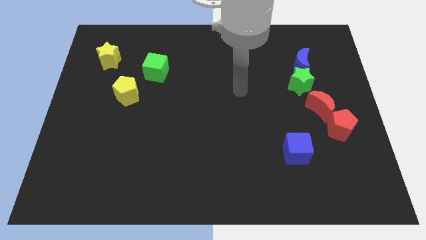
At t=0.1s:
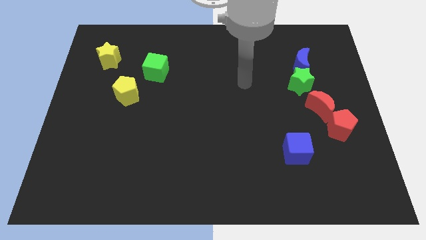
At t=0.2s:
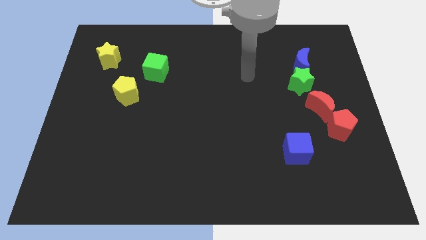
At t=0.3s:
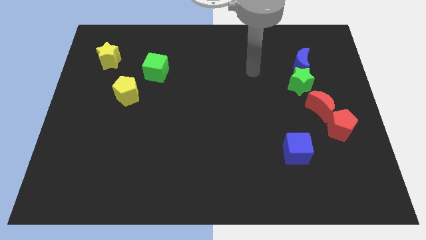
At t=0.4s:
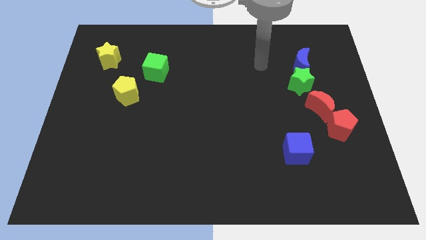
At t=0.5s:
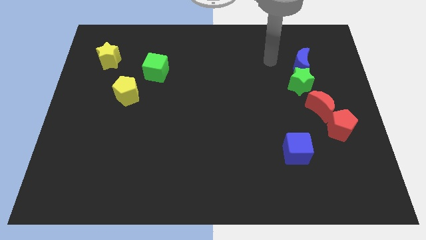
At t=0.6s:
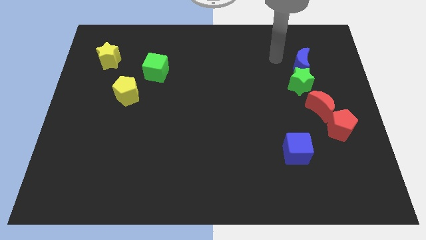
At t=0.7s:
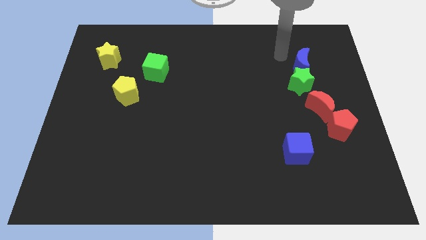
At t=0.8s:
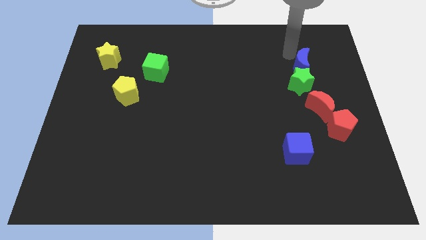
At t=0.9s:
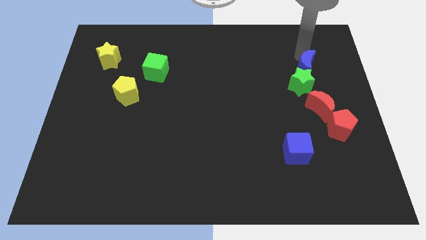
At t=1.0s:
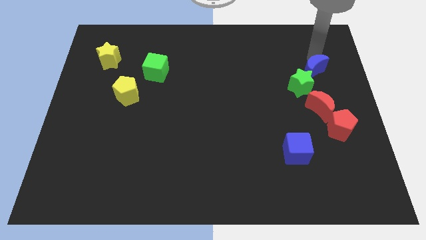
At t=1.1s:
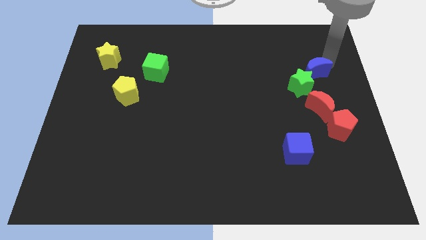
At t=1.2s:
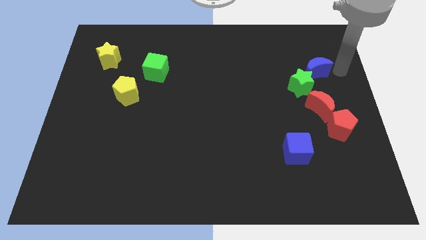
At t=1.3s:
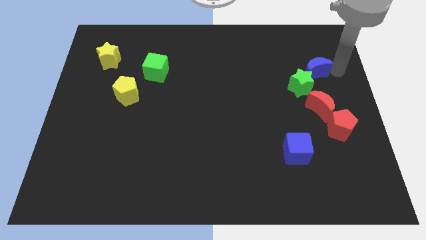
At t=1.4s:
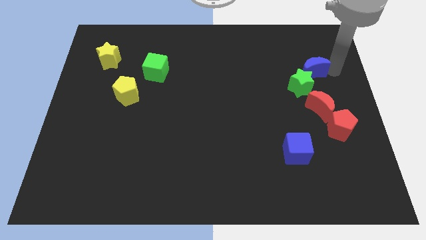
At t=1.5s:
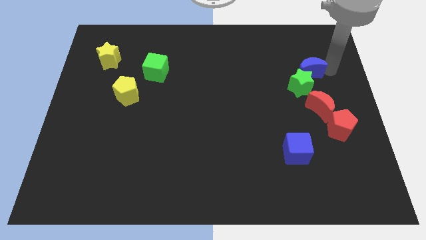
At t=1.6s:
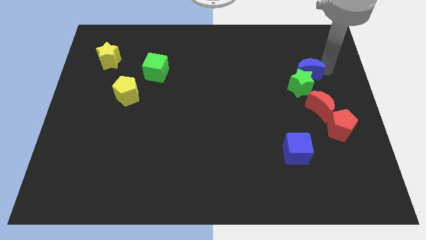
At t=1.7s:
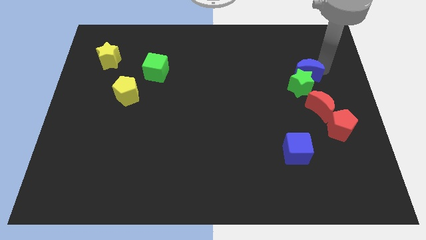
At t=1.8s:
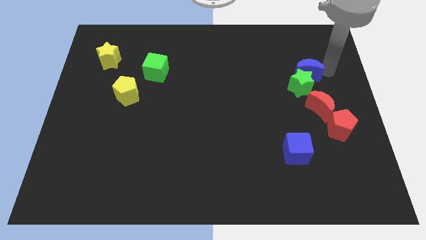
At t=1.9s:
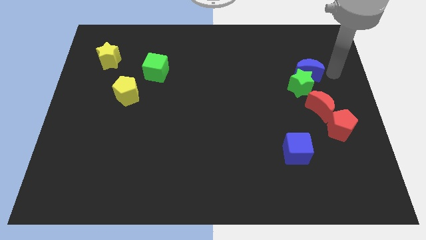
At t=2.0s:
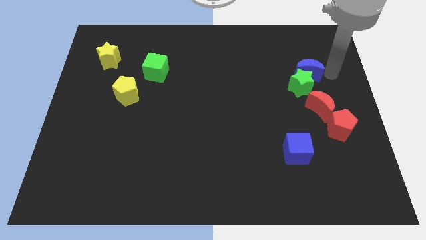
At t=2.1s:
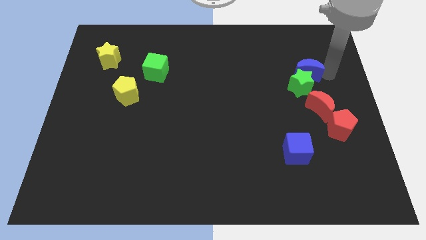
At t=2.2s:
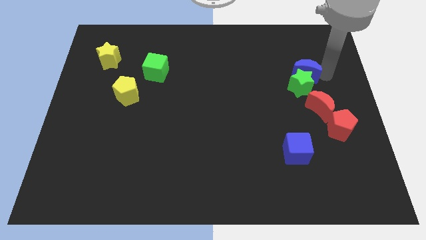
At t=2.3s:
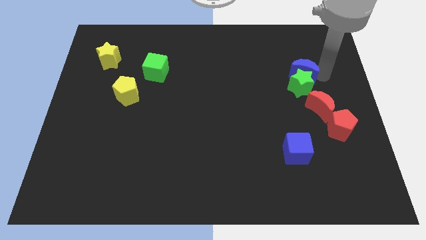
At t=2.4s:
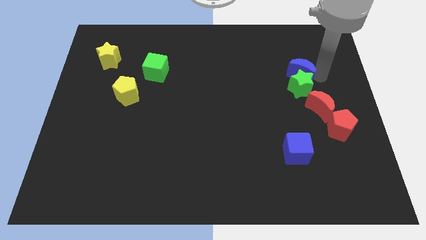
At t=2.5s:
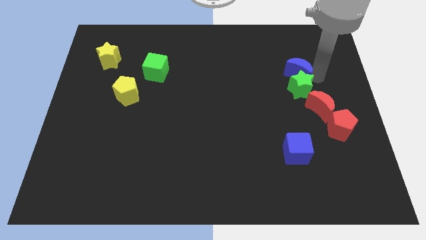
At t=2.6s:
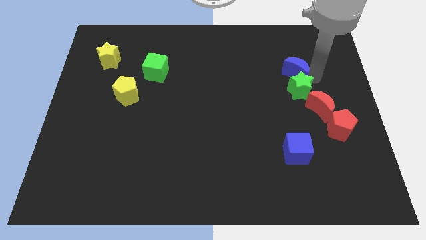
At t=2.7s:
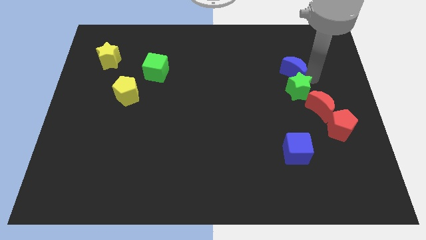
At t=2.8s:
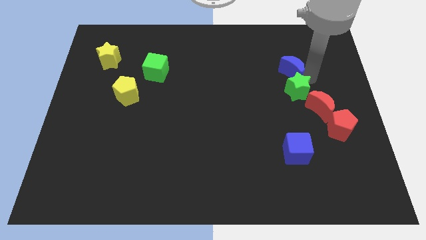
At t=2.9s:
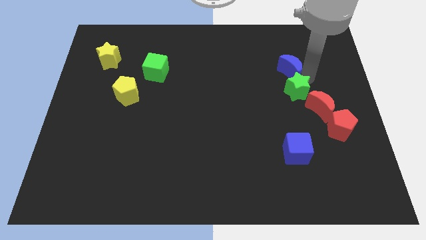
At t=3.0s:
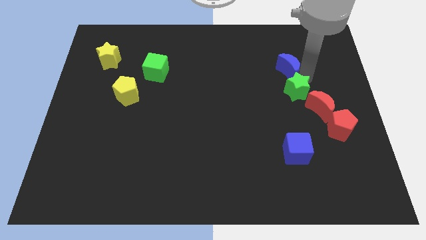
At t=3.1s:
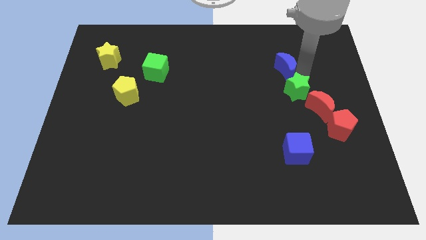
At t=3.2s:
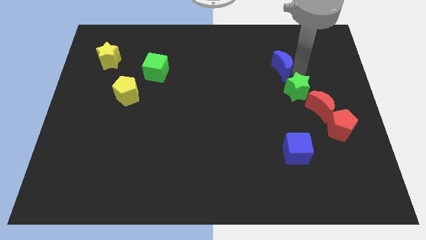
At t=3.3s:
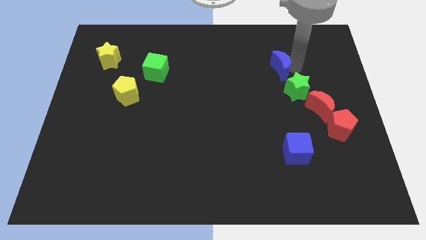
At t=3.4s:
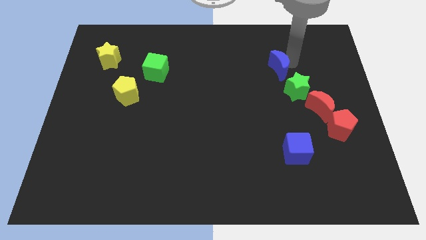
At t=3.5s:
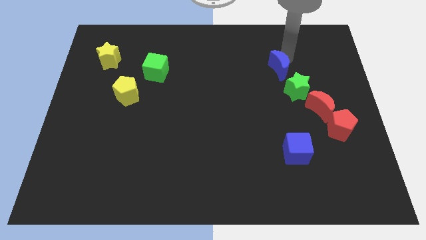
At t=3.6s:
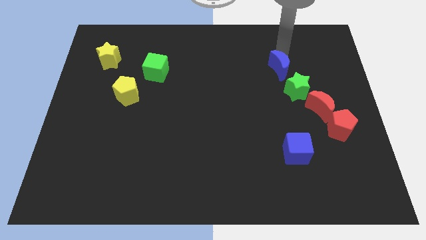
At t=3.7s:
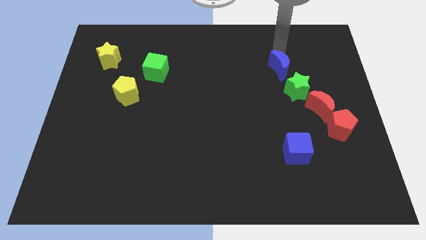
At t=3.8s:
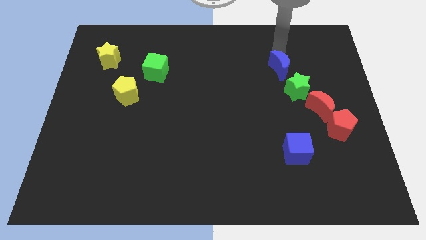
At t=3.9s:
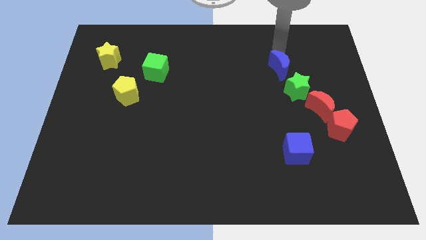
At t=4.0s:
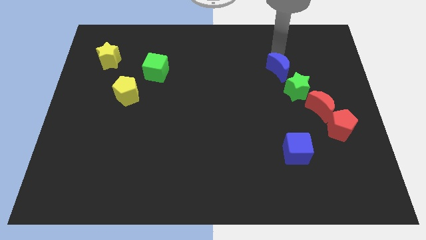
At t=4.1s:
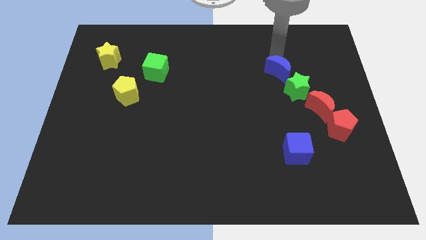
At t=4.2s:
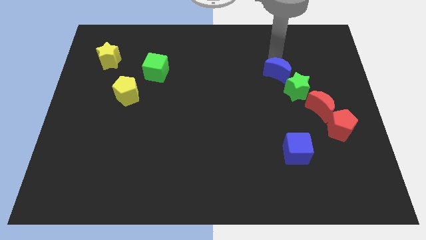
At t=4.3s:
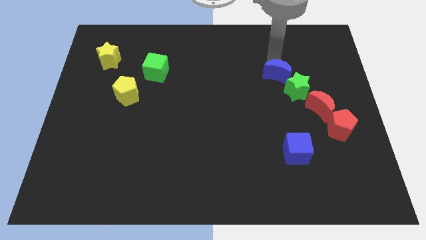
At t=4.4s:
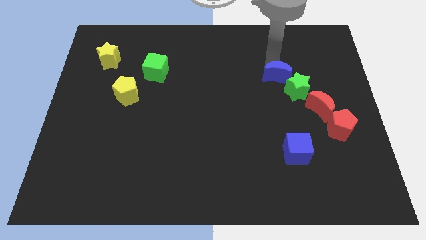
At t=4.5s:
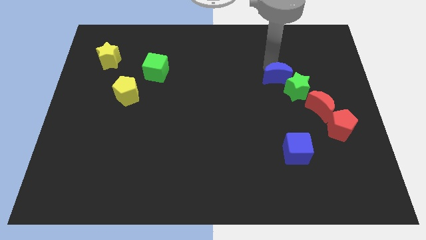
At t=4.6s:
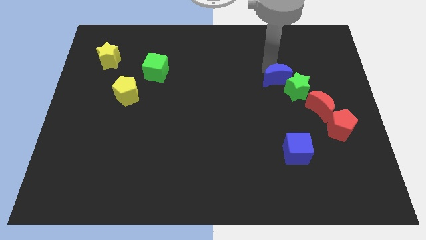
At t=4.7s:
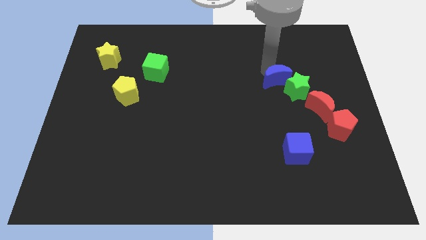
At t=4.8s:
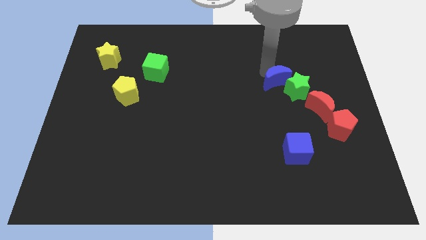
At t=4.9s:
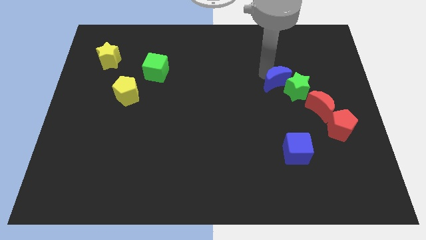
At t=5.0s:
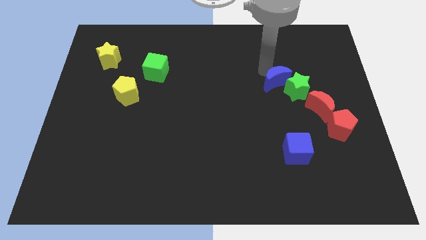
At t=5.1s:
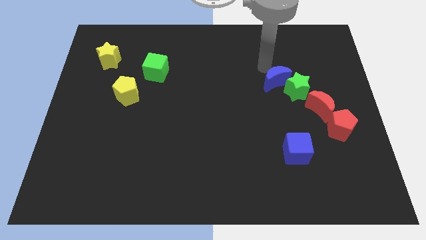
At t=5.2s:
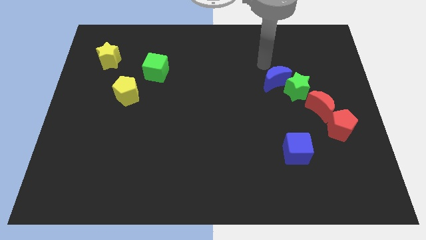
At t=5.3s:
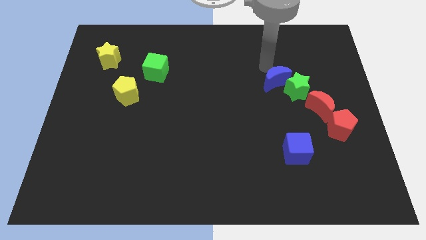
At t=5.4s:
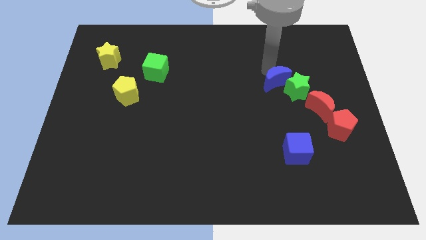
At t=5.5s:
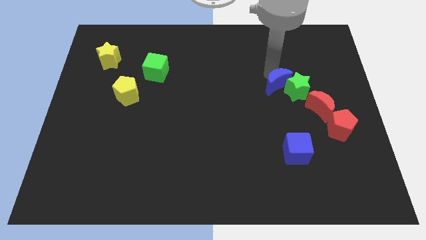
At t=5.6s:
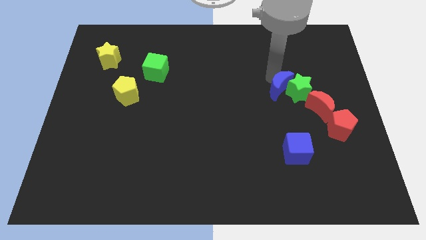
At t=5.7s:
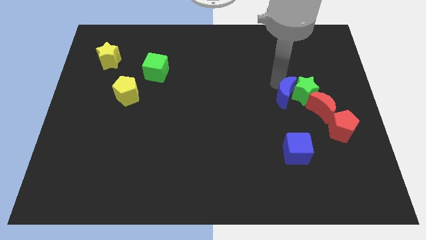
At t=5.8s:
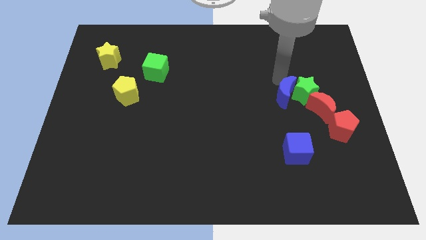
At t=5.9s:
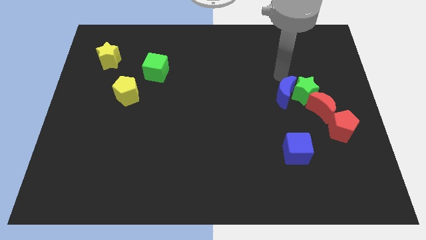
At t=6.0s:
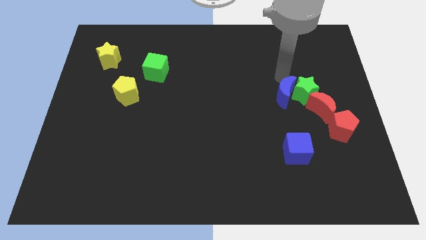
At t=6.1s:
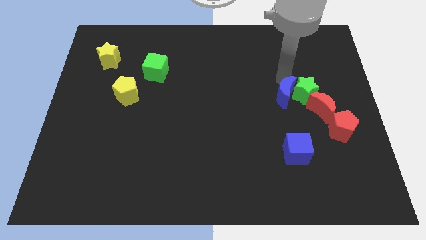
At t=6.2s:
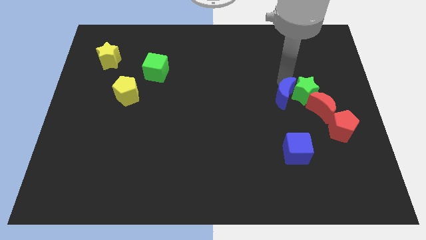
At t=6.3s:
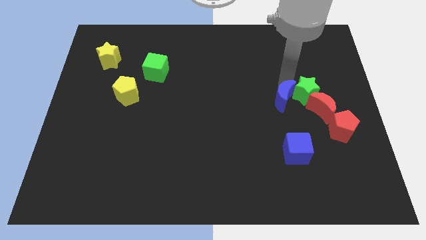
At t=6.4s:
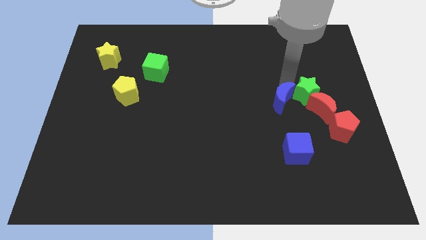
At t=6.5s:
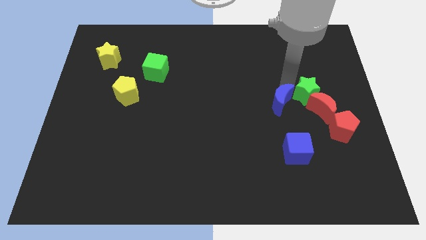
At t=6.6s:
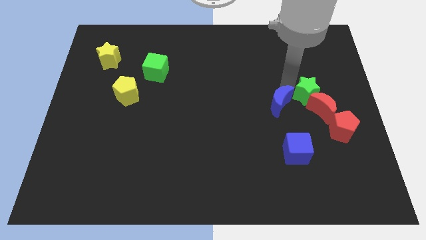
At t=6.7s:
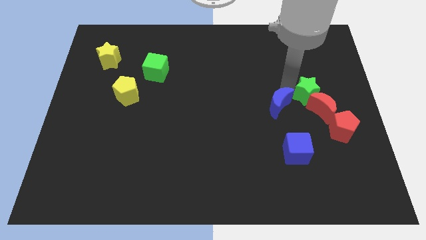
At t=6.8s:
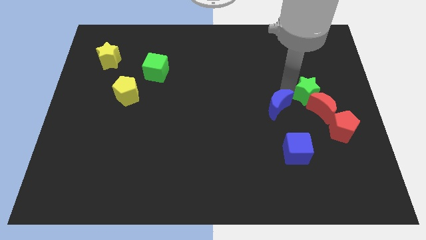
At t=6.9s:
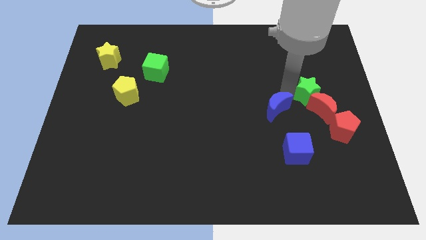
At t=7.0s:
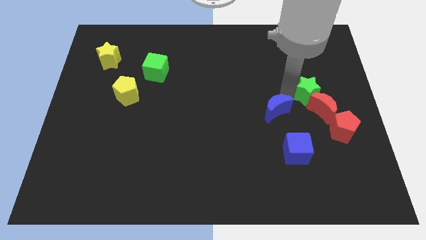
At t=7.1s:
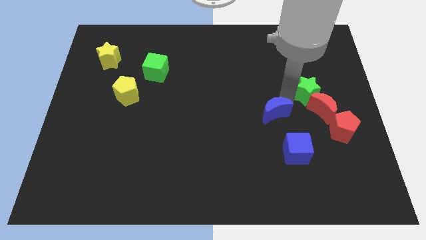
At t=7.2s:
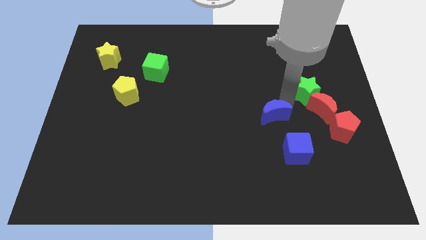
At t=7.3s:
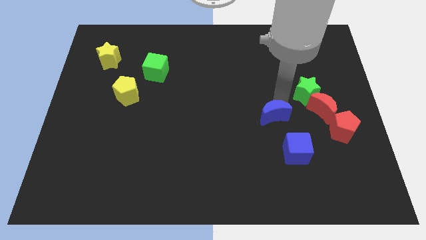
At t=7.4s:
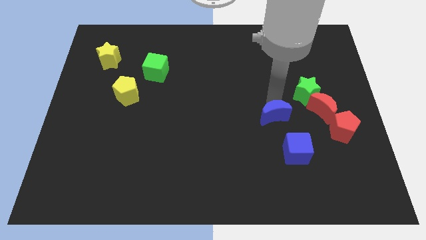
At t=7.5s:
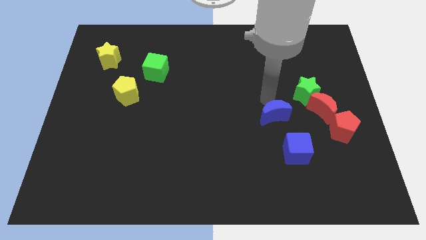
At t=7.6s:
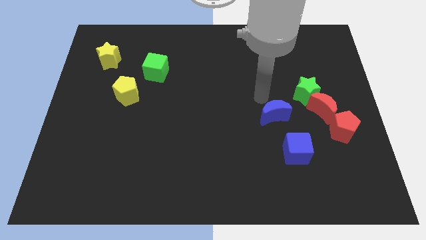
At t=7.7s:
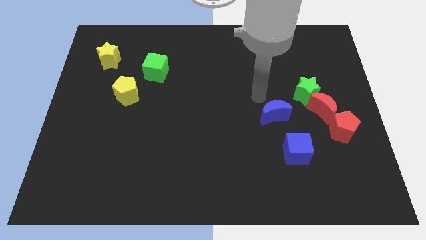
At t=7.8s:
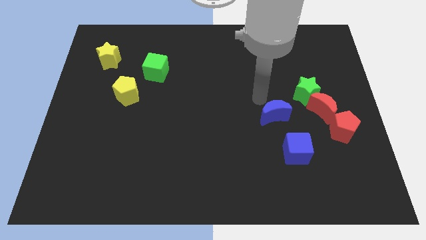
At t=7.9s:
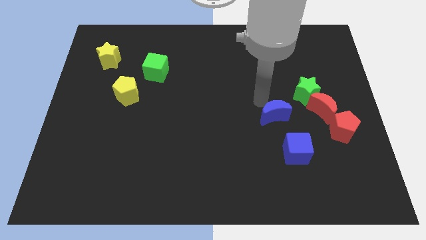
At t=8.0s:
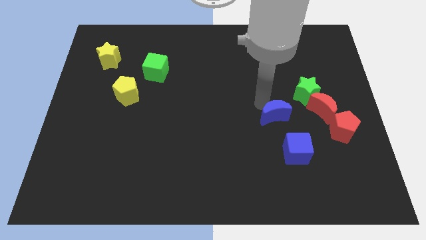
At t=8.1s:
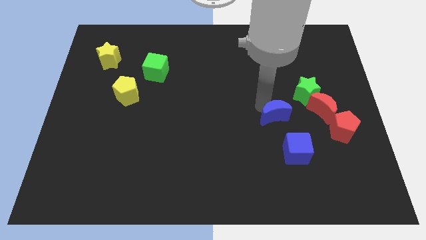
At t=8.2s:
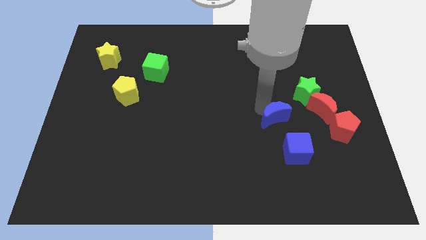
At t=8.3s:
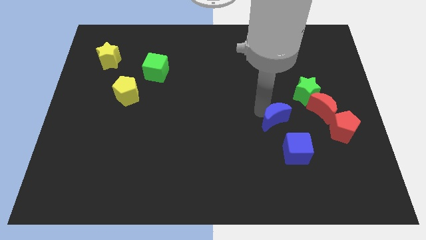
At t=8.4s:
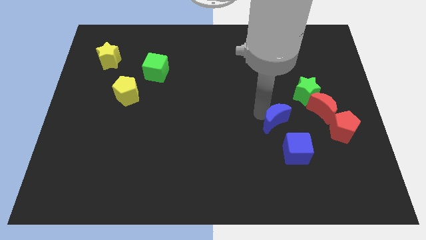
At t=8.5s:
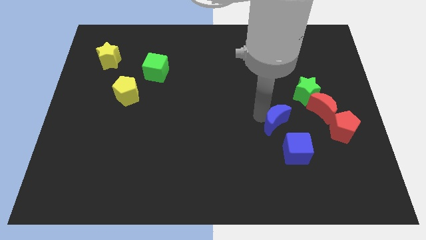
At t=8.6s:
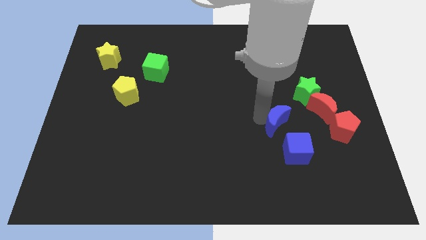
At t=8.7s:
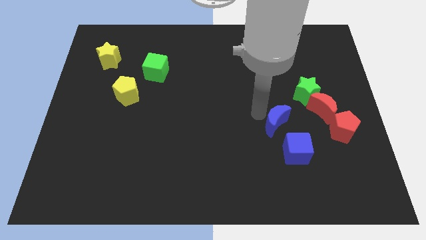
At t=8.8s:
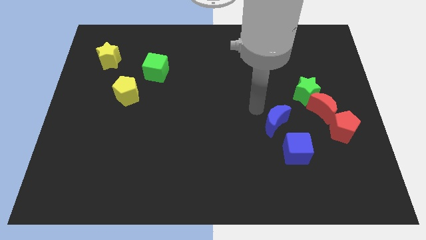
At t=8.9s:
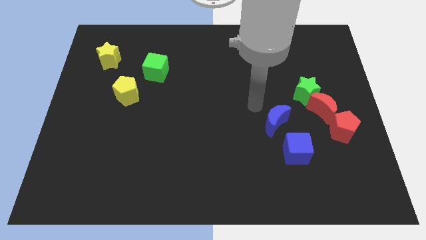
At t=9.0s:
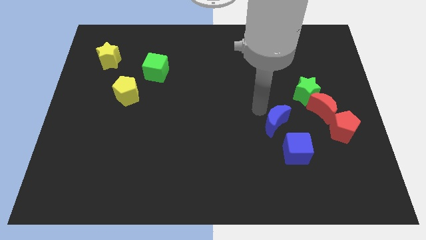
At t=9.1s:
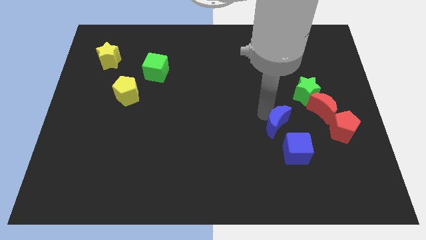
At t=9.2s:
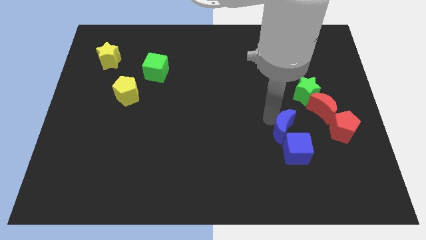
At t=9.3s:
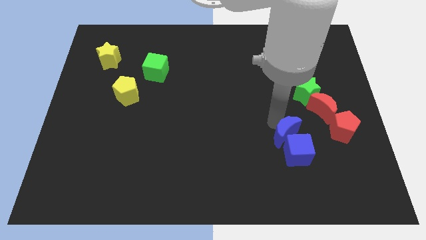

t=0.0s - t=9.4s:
push the blue moon next to the blue cube
